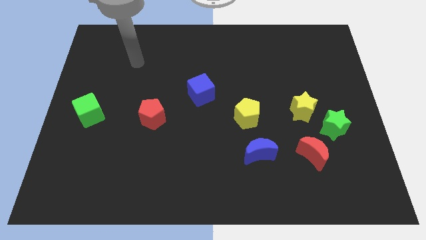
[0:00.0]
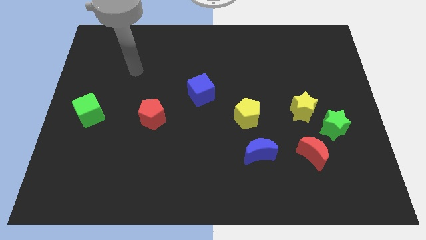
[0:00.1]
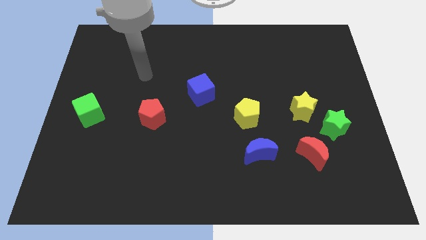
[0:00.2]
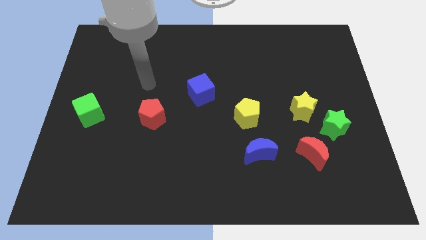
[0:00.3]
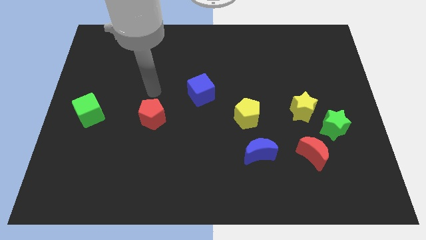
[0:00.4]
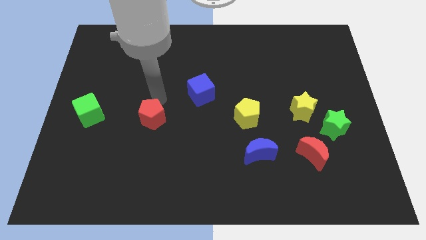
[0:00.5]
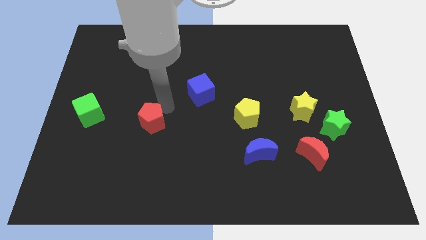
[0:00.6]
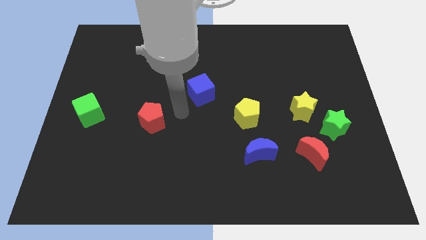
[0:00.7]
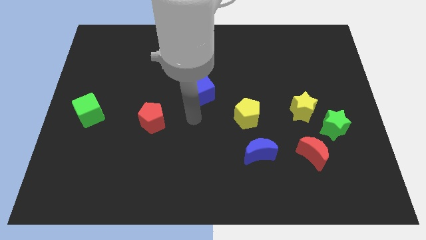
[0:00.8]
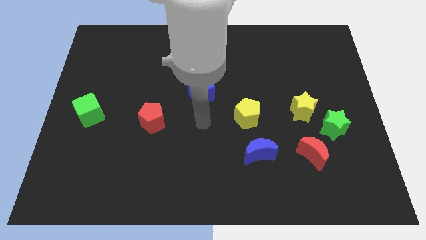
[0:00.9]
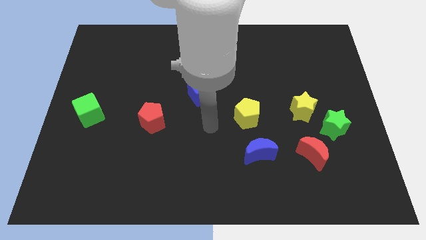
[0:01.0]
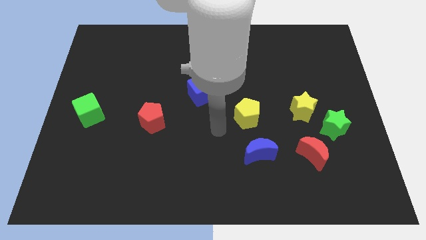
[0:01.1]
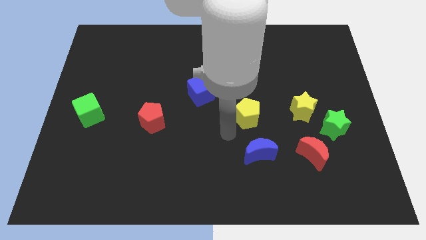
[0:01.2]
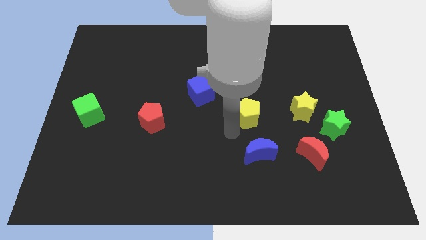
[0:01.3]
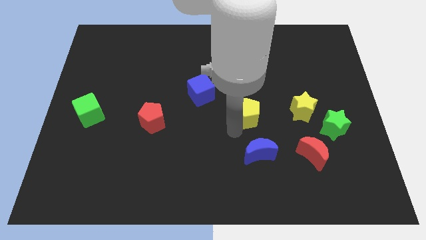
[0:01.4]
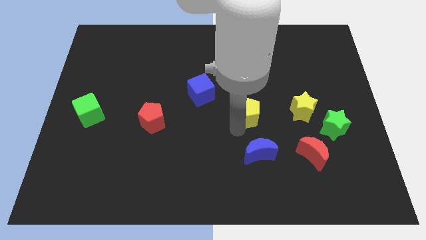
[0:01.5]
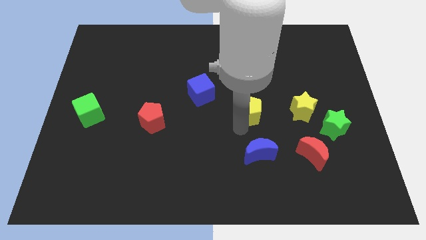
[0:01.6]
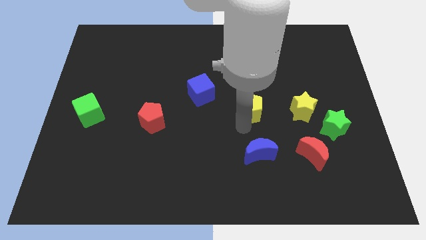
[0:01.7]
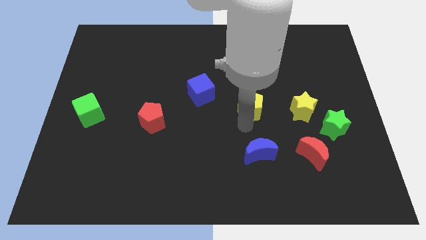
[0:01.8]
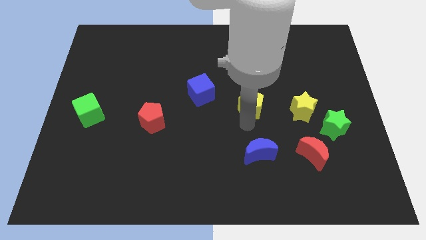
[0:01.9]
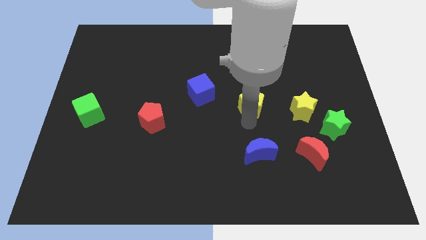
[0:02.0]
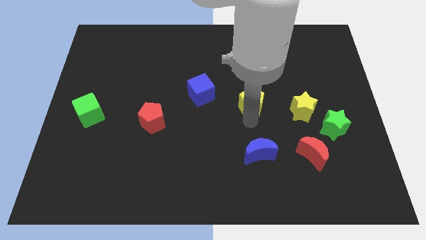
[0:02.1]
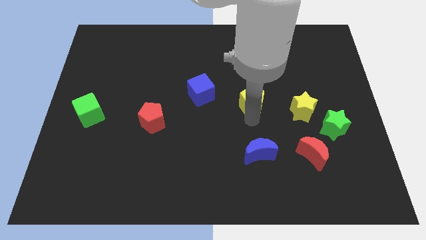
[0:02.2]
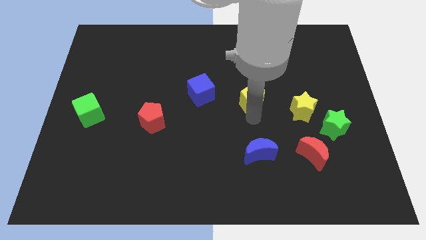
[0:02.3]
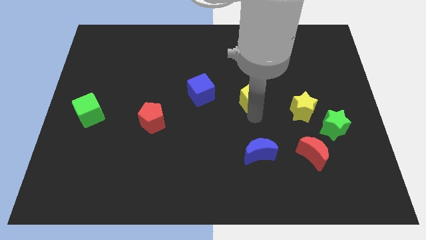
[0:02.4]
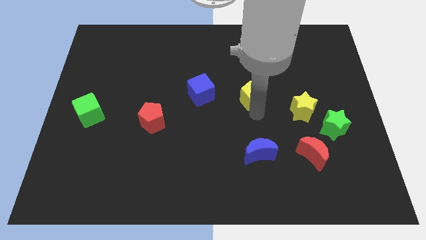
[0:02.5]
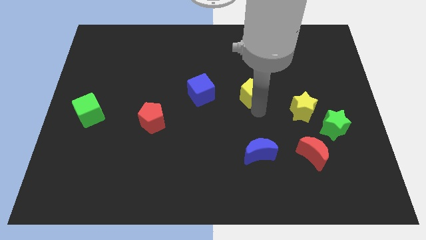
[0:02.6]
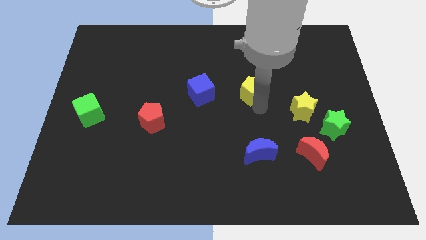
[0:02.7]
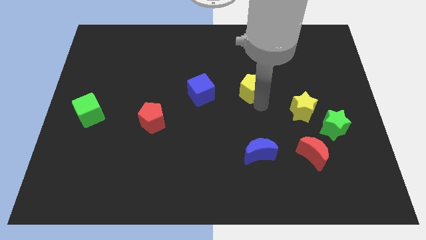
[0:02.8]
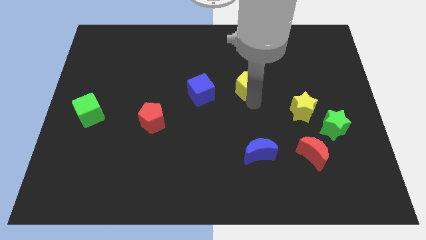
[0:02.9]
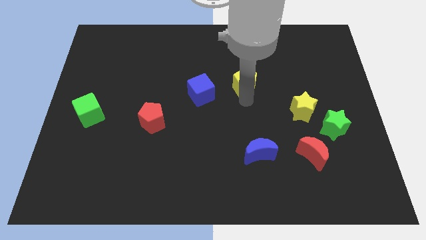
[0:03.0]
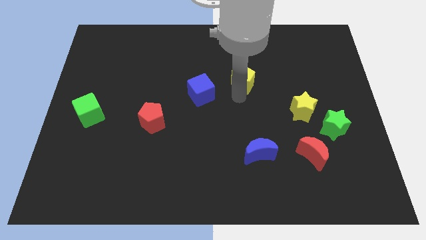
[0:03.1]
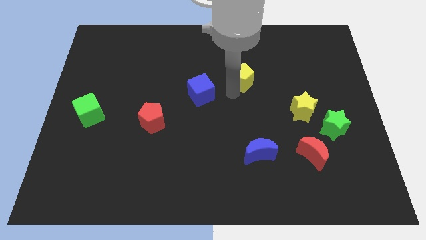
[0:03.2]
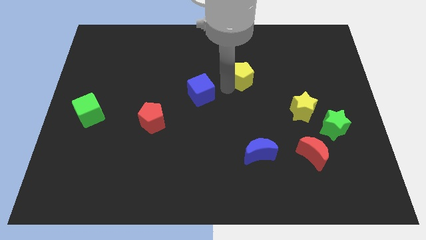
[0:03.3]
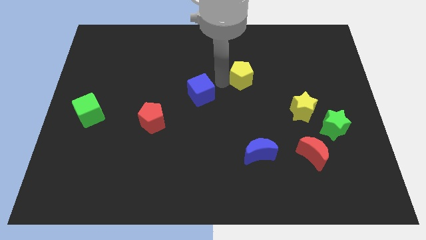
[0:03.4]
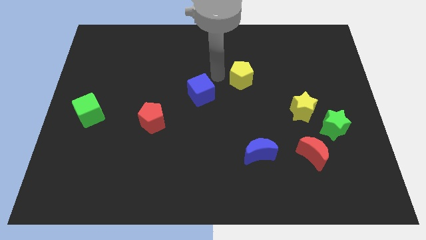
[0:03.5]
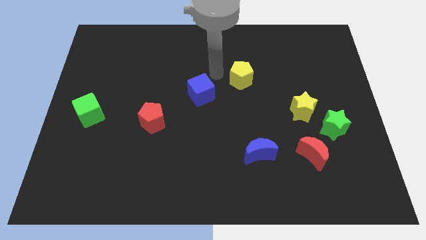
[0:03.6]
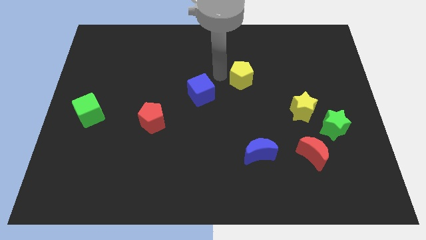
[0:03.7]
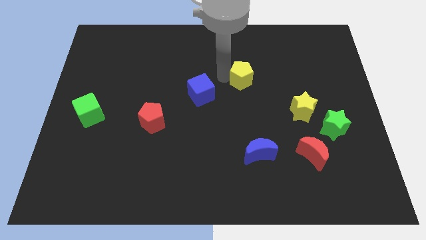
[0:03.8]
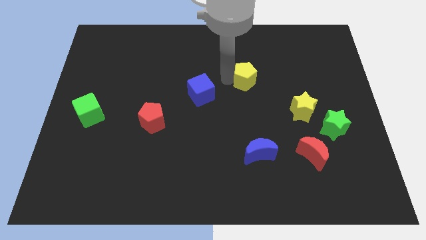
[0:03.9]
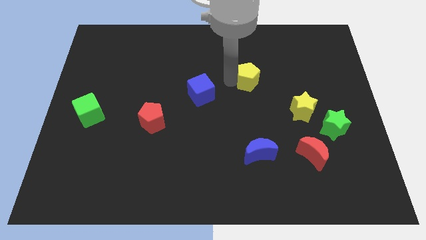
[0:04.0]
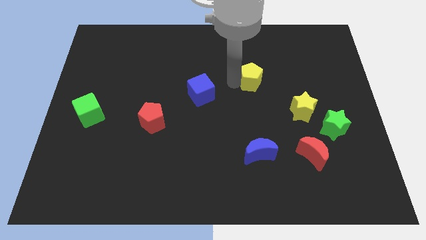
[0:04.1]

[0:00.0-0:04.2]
move the yellow pentagon up and to the right diagonally slightly

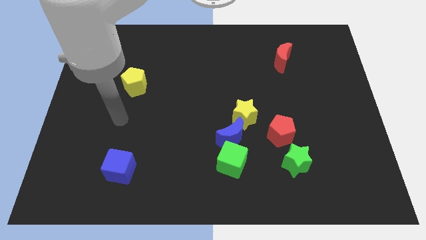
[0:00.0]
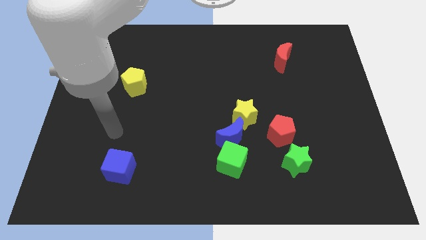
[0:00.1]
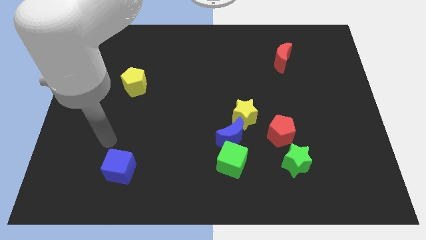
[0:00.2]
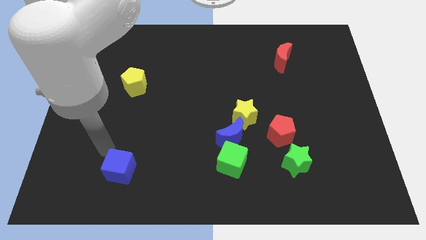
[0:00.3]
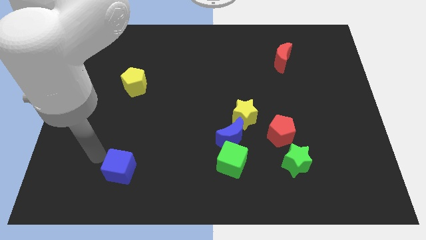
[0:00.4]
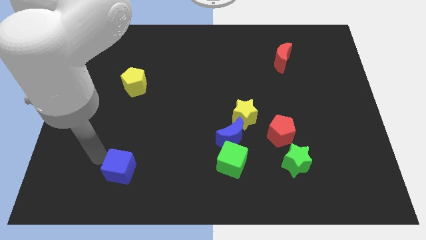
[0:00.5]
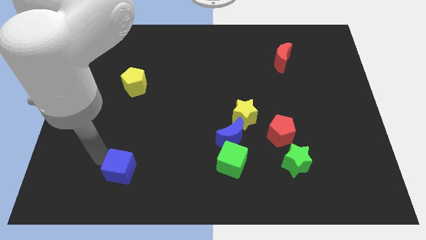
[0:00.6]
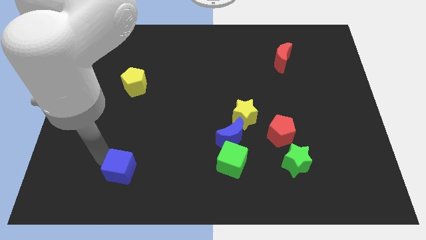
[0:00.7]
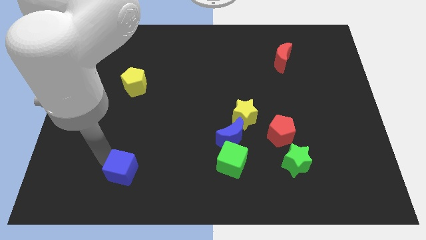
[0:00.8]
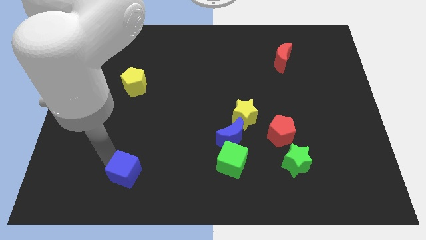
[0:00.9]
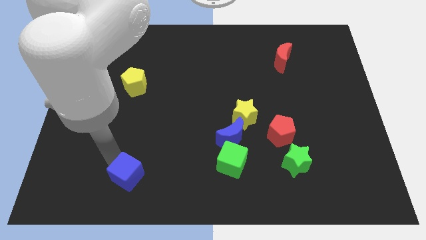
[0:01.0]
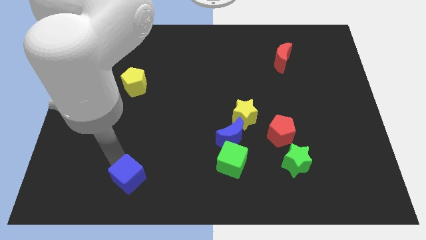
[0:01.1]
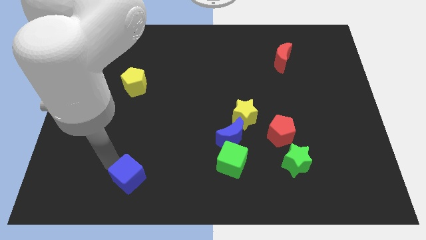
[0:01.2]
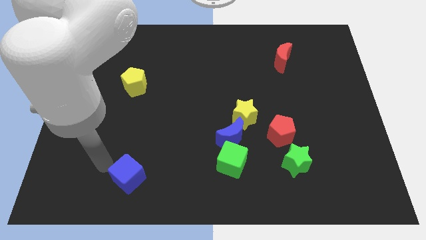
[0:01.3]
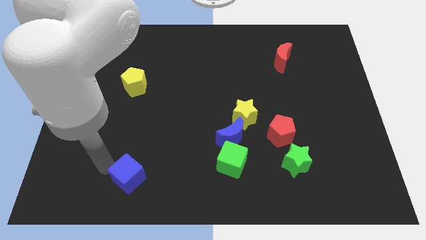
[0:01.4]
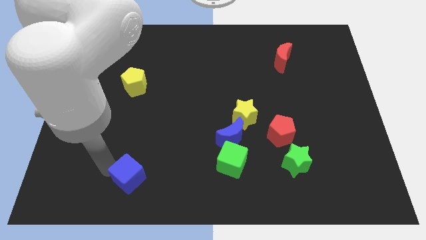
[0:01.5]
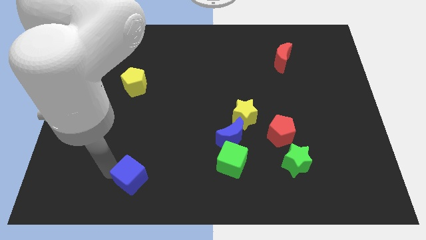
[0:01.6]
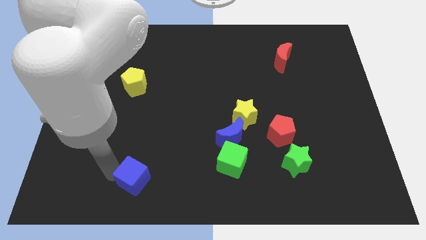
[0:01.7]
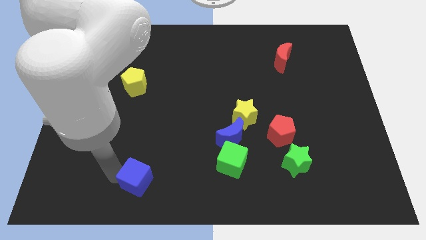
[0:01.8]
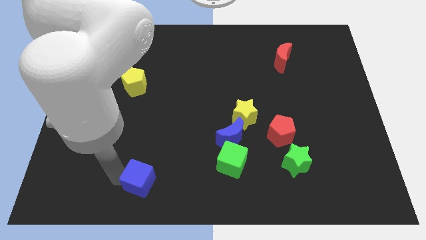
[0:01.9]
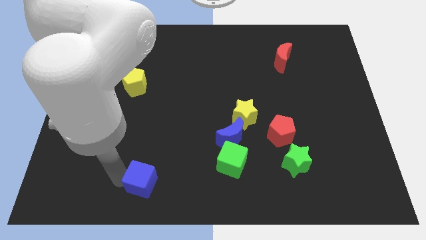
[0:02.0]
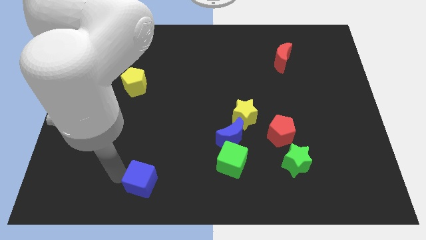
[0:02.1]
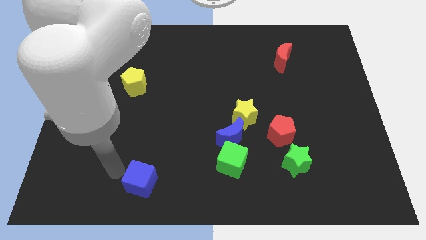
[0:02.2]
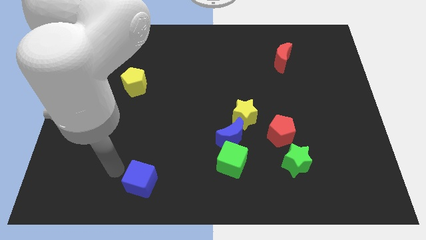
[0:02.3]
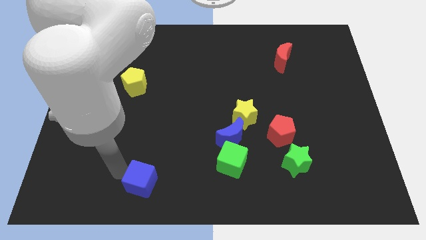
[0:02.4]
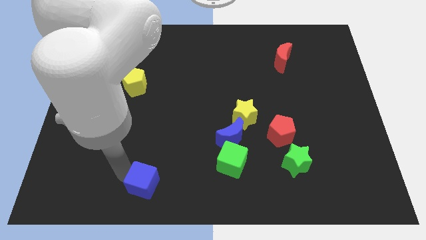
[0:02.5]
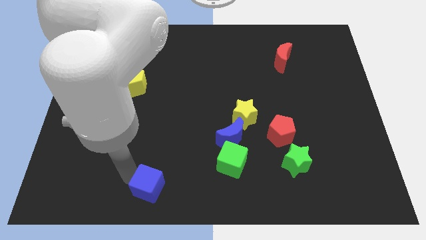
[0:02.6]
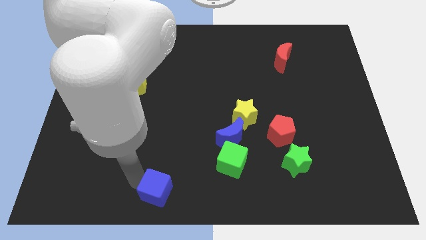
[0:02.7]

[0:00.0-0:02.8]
slide the blue cube a little to the right

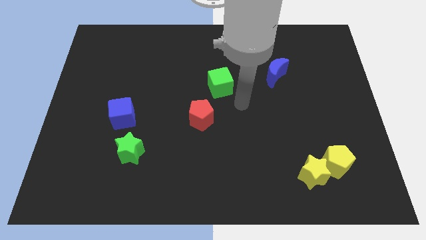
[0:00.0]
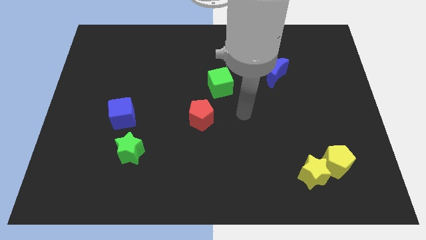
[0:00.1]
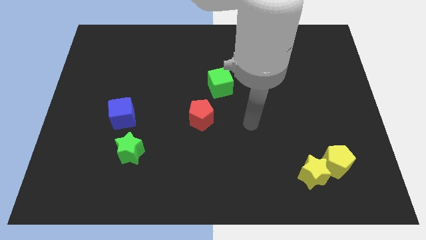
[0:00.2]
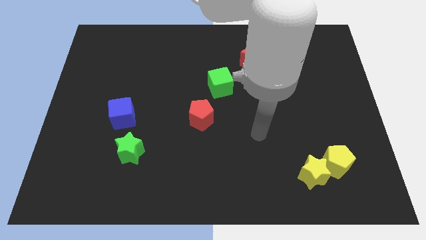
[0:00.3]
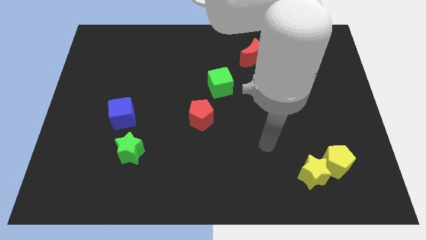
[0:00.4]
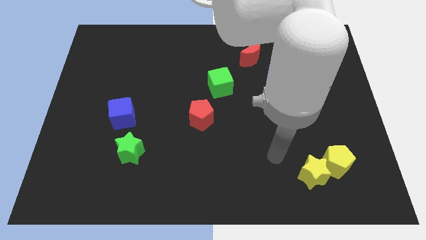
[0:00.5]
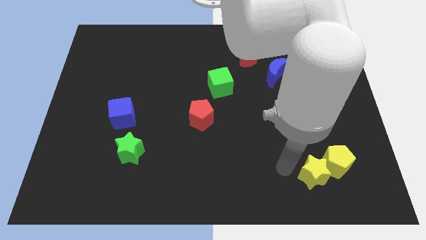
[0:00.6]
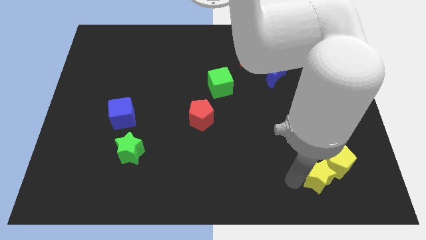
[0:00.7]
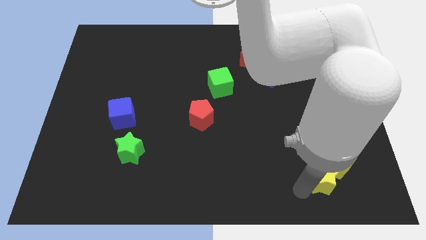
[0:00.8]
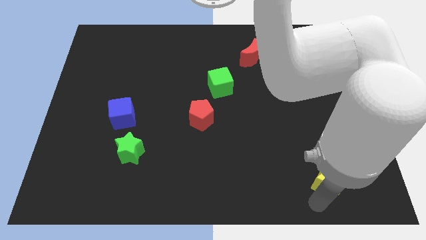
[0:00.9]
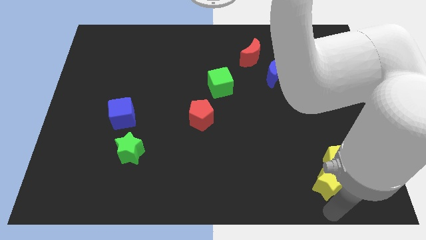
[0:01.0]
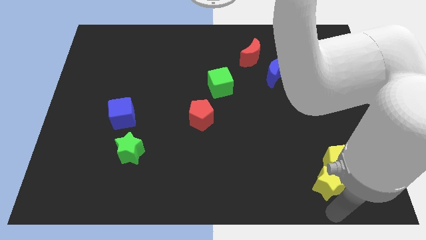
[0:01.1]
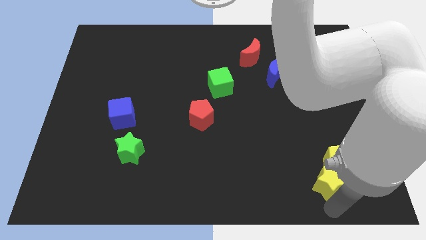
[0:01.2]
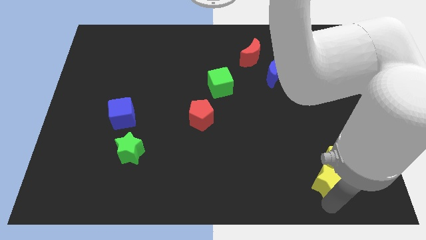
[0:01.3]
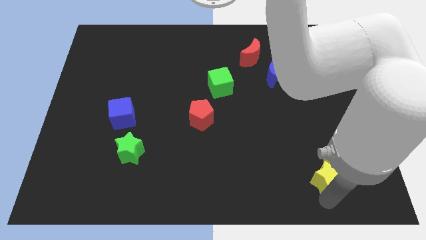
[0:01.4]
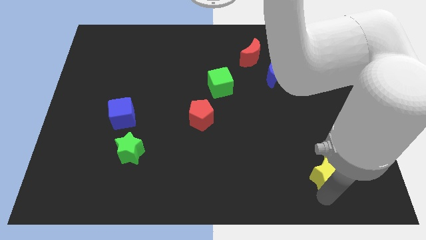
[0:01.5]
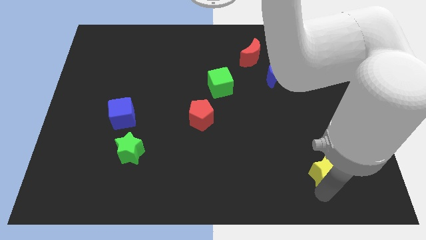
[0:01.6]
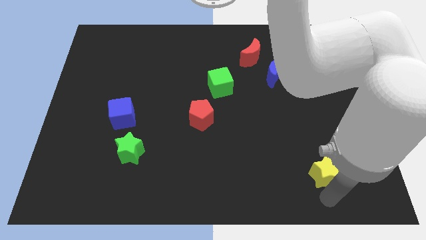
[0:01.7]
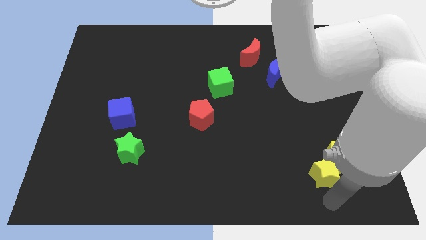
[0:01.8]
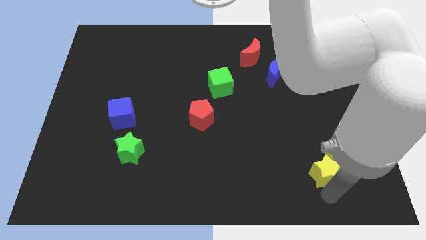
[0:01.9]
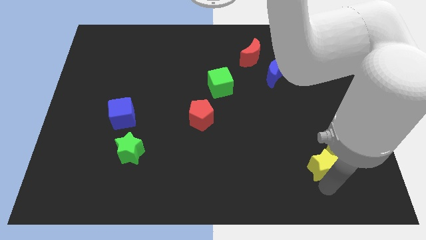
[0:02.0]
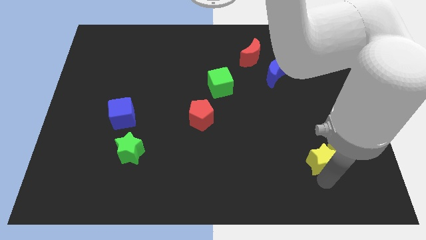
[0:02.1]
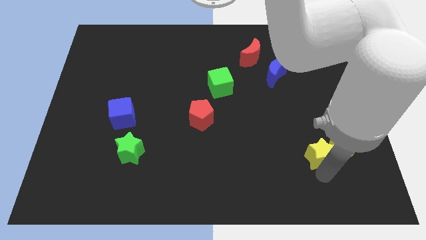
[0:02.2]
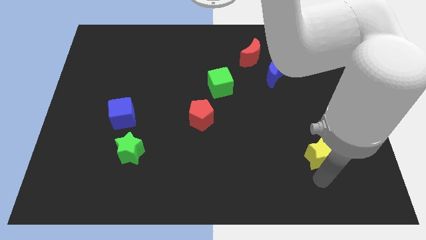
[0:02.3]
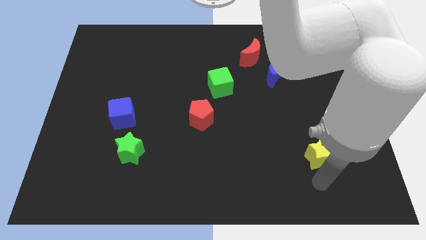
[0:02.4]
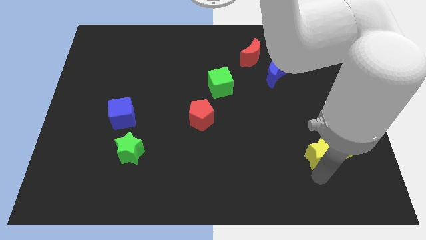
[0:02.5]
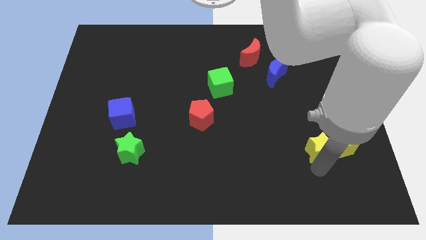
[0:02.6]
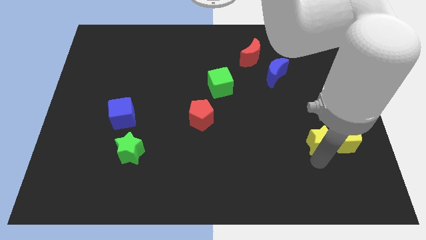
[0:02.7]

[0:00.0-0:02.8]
push the yellow star up a little bit
